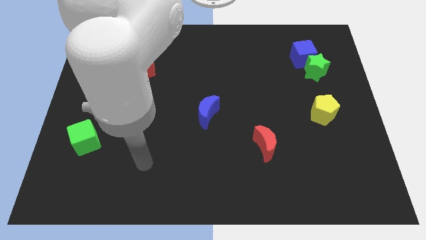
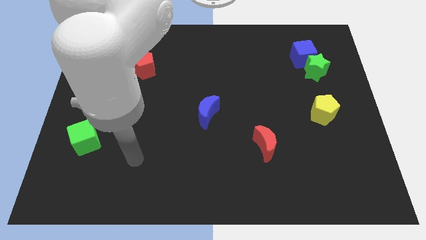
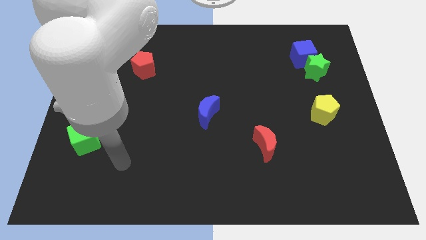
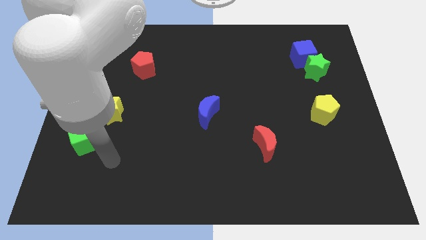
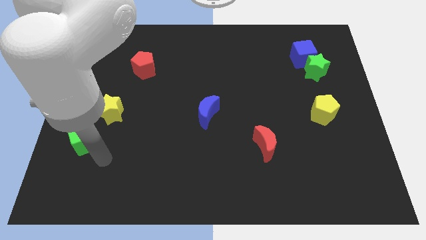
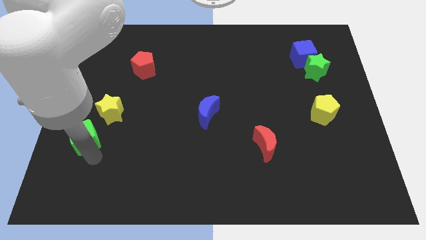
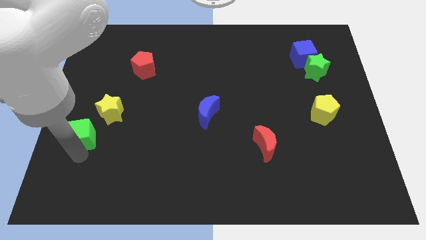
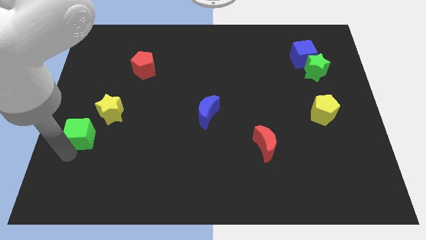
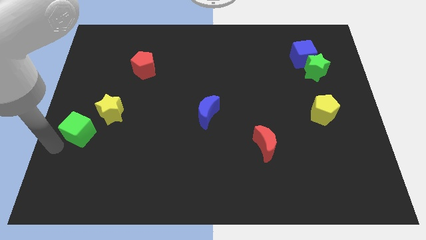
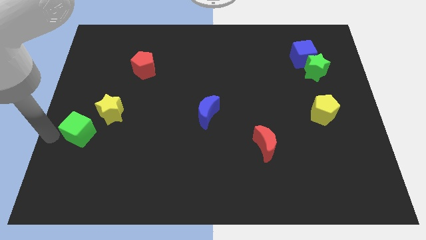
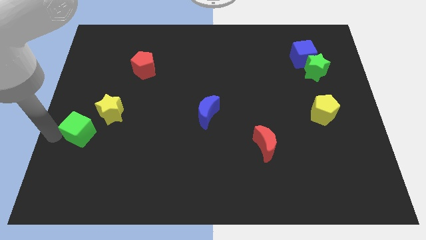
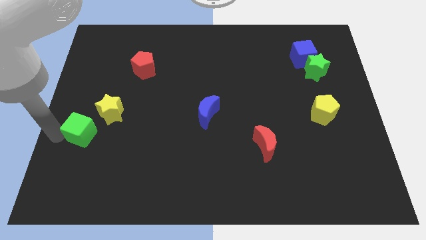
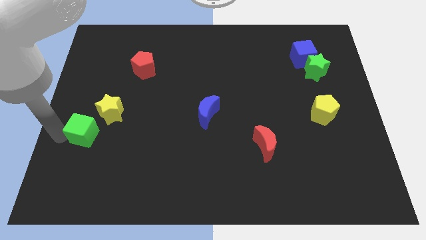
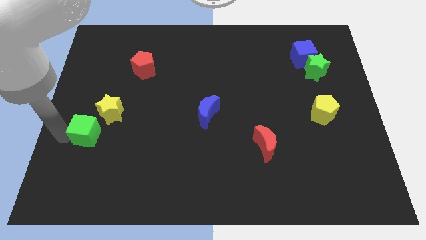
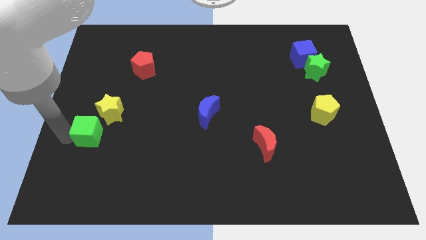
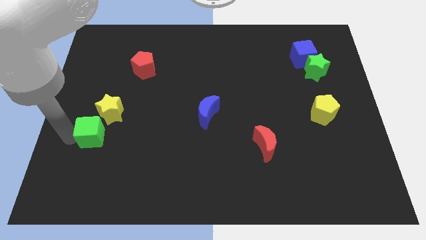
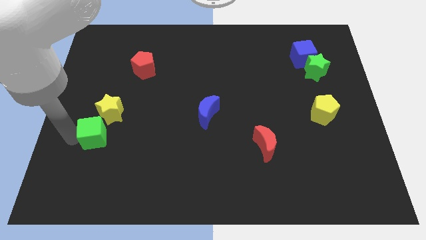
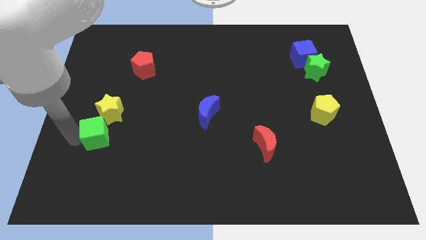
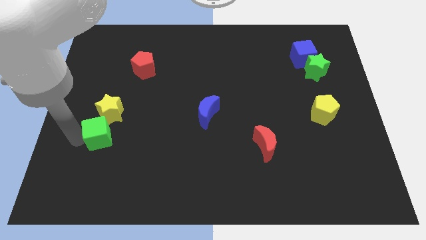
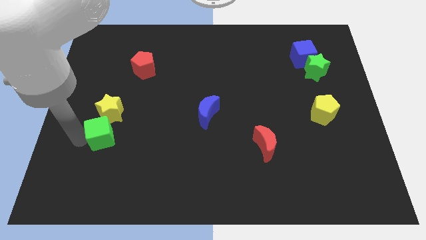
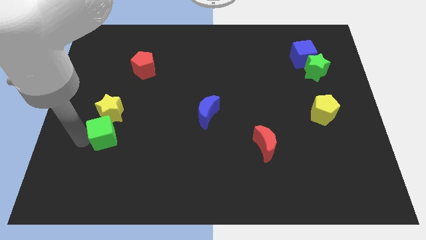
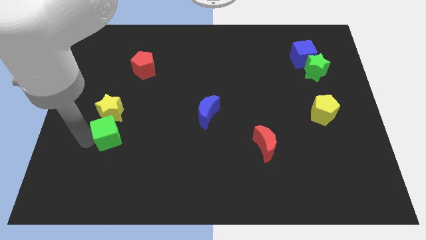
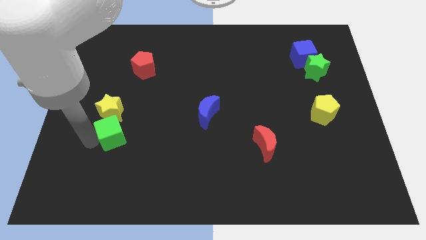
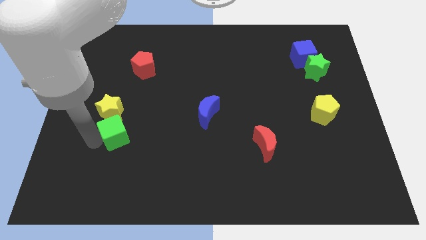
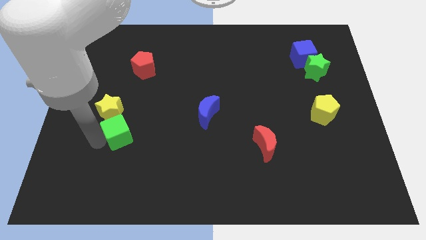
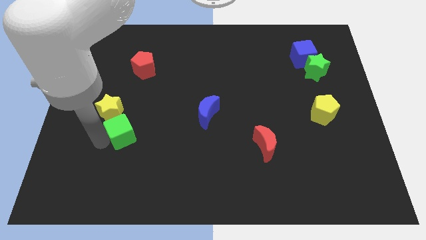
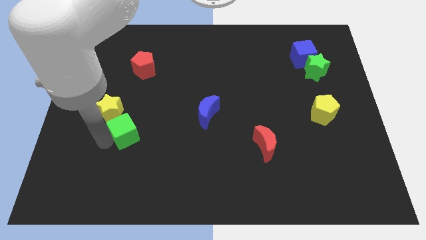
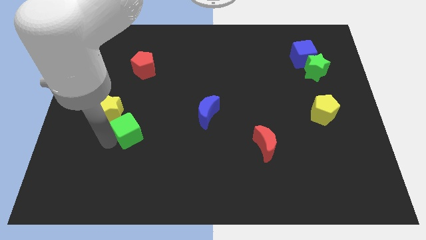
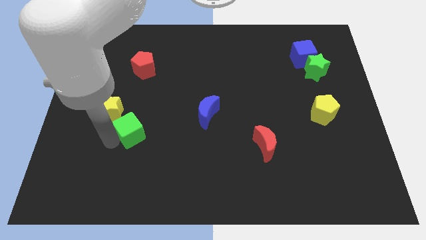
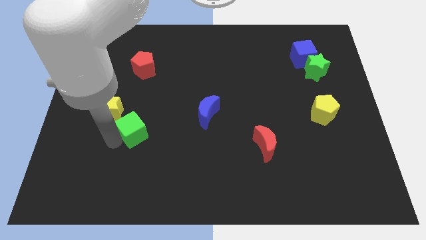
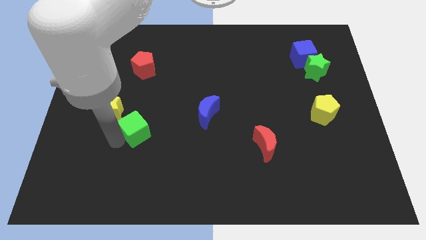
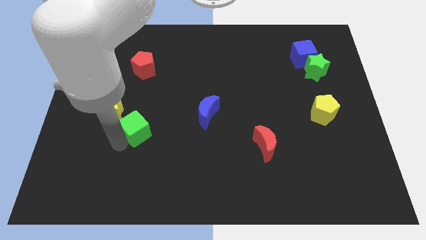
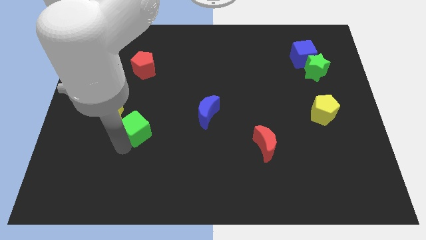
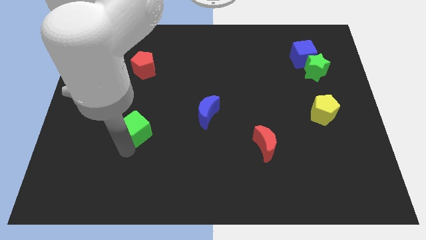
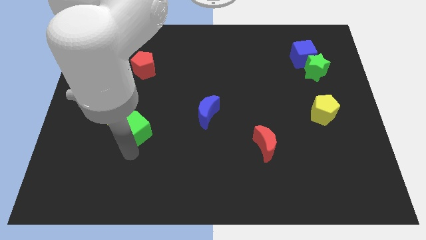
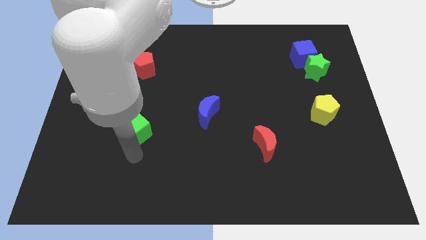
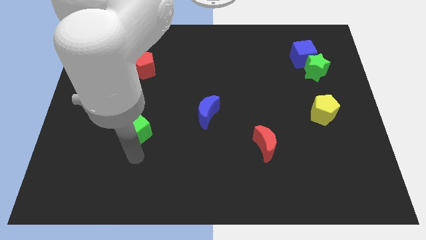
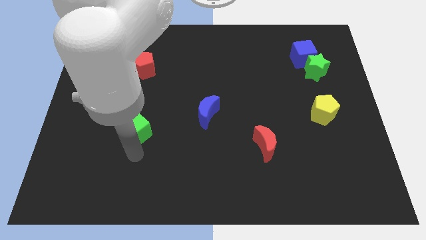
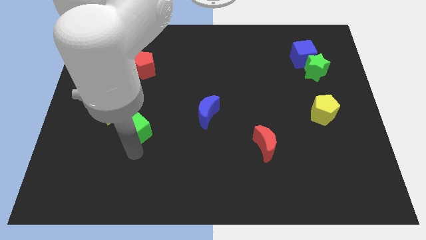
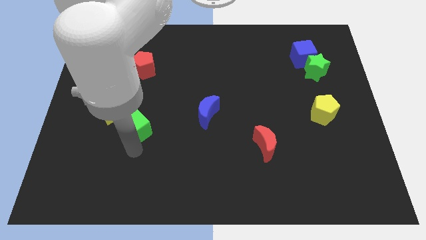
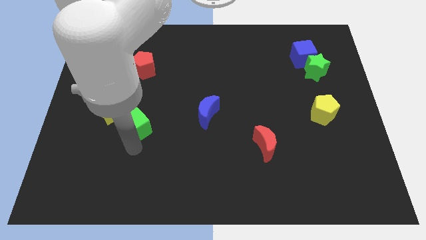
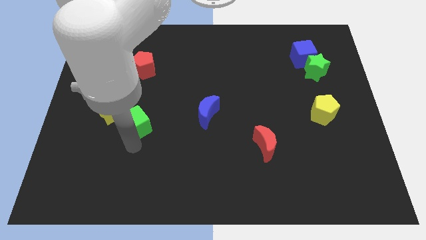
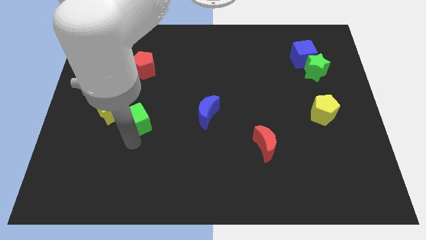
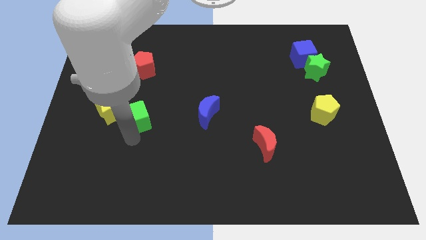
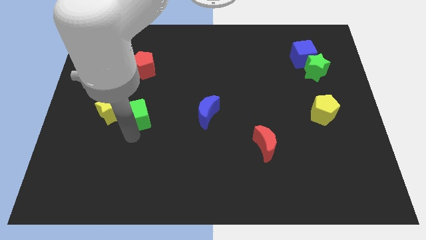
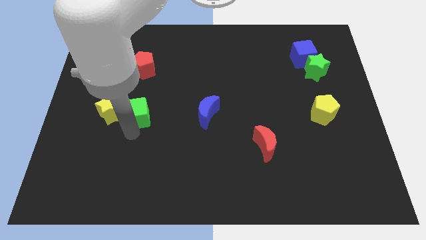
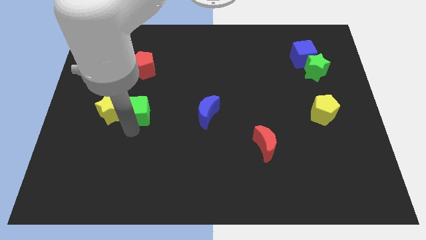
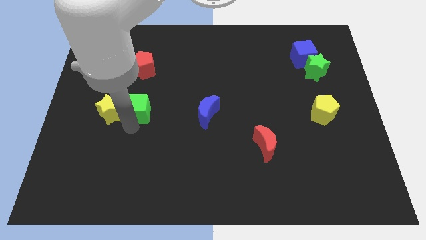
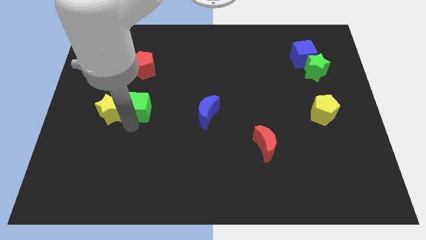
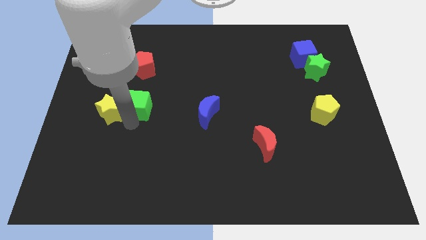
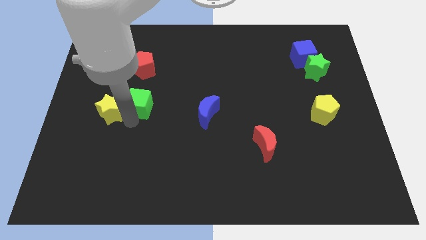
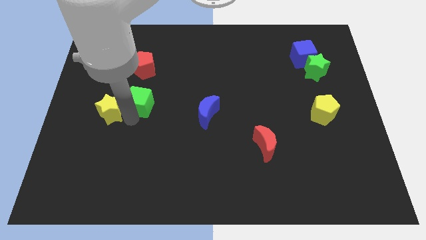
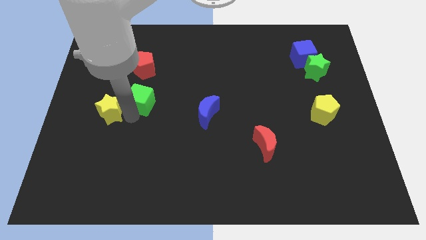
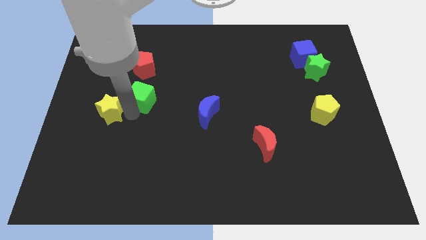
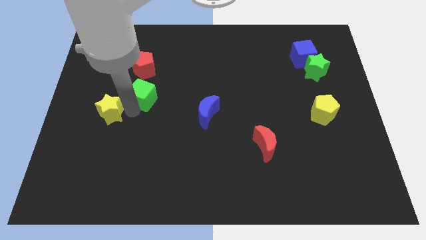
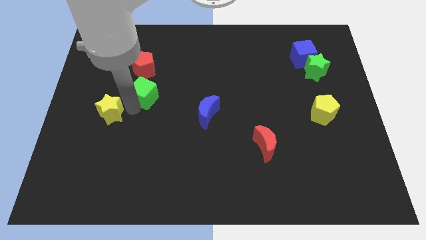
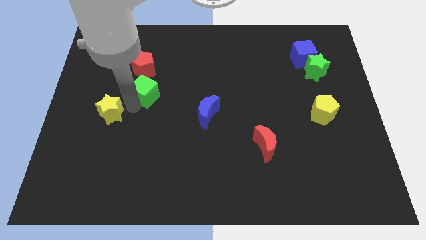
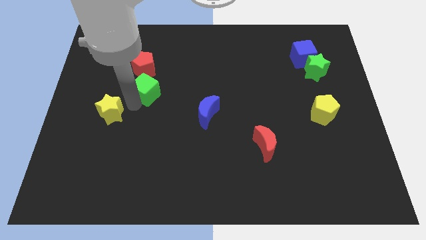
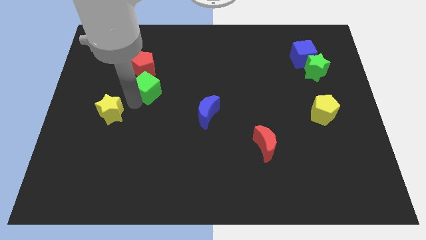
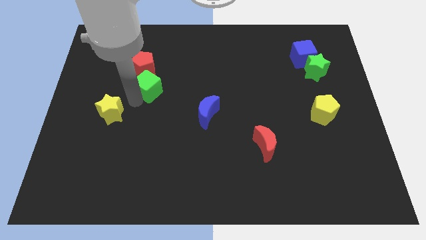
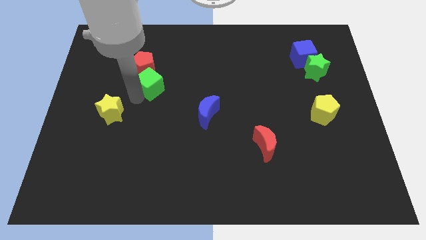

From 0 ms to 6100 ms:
slide the green cube up and right diagonally

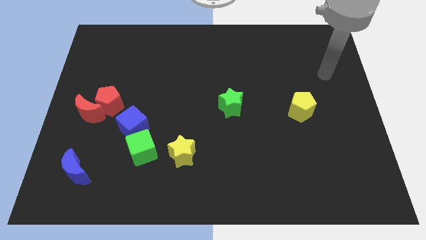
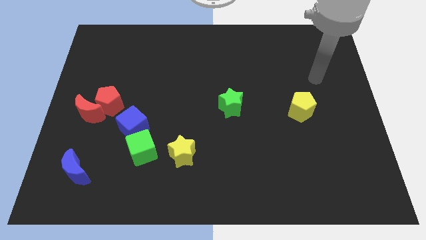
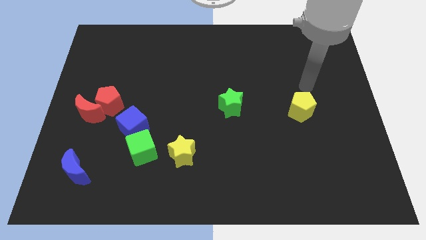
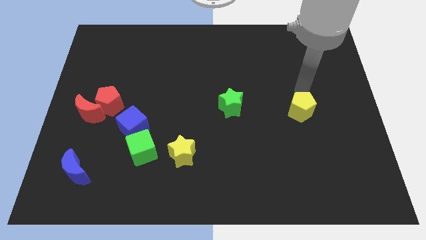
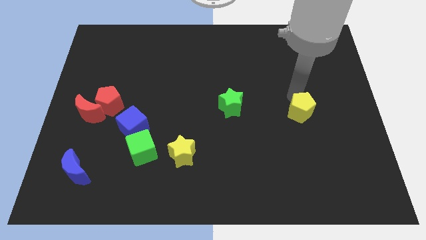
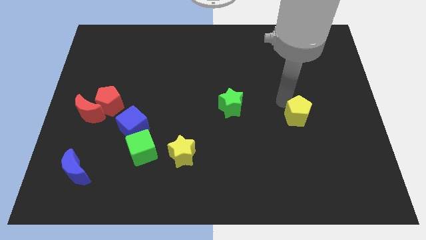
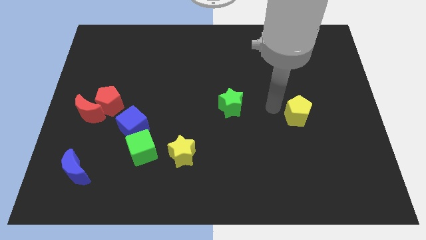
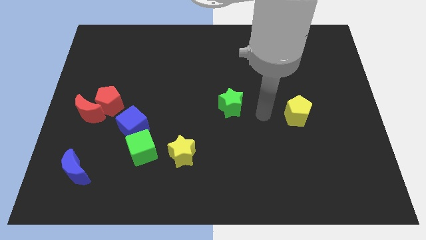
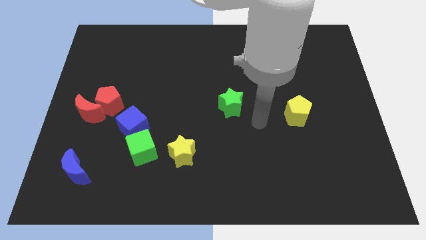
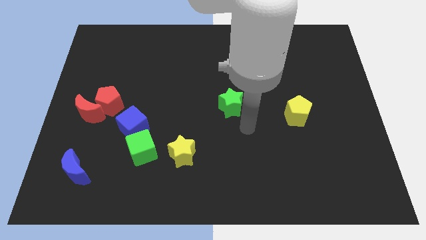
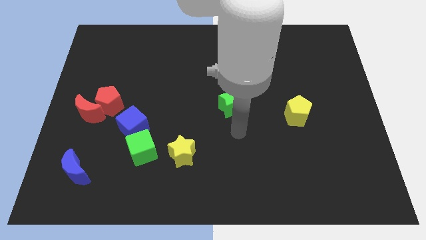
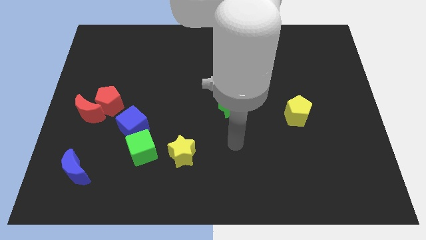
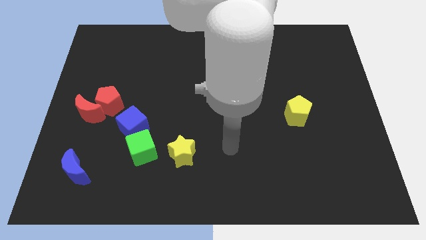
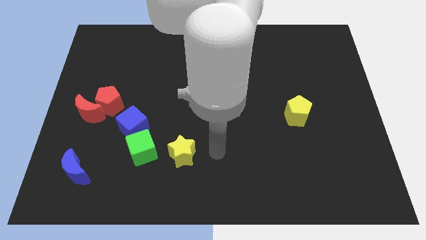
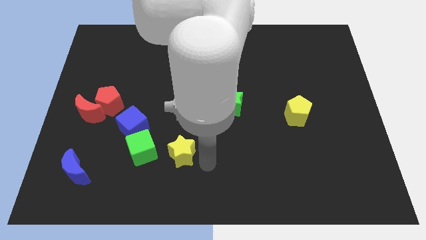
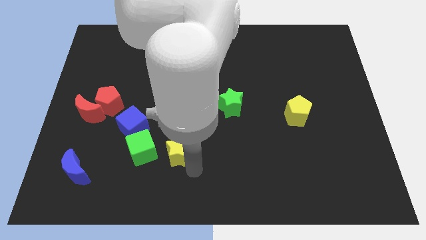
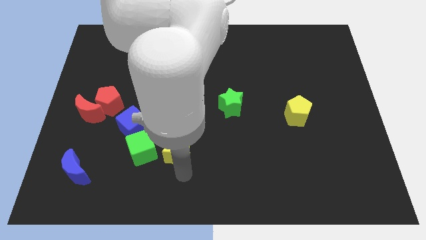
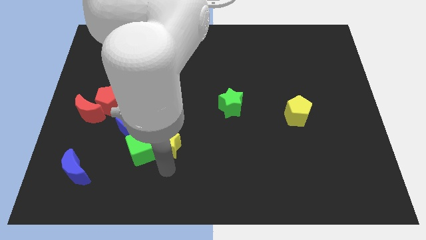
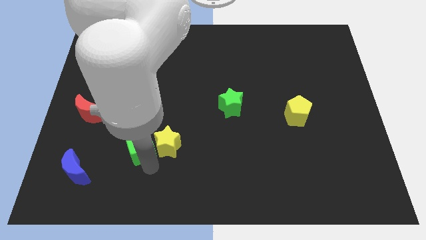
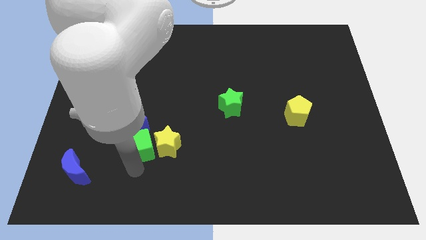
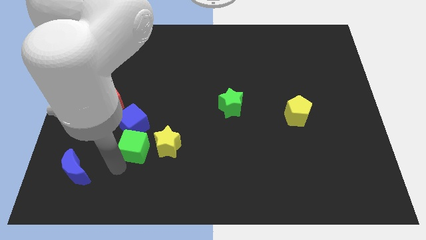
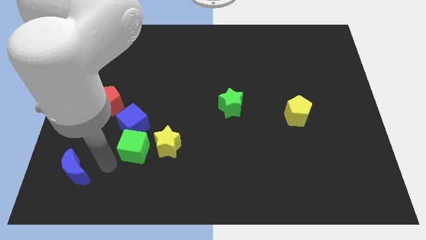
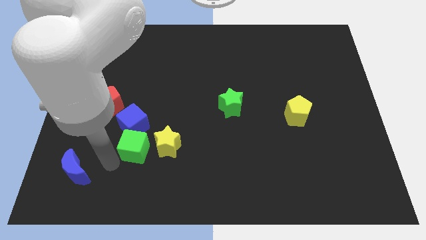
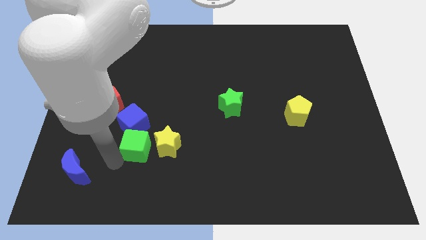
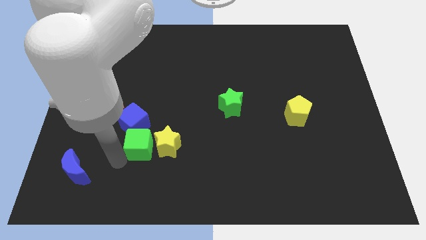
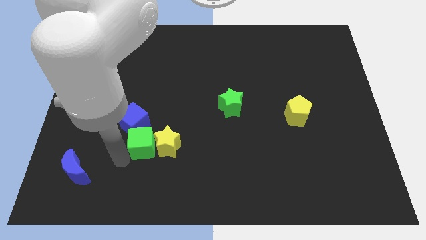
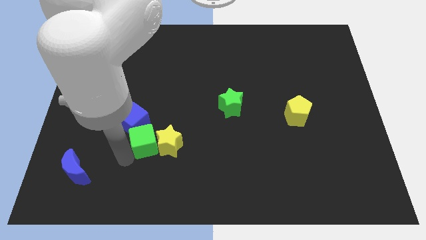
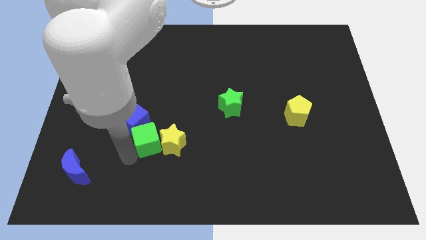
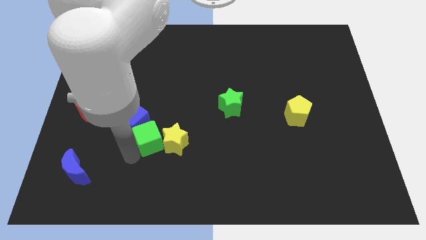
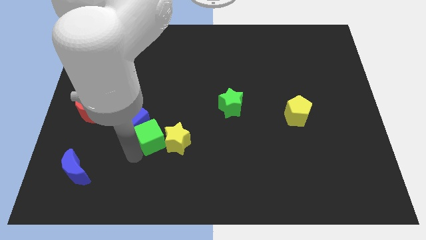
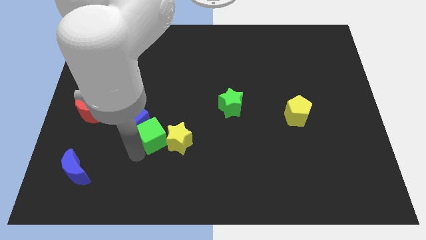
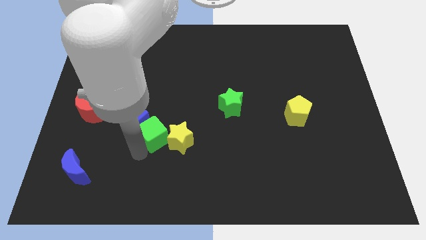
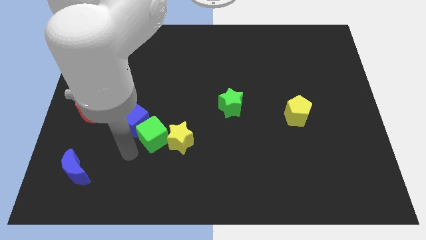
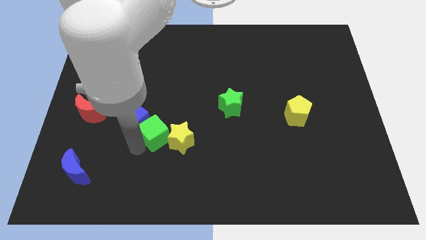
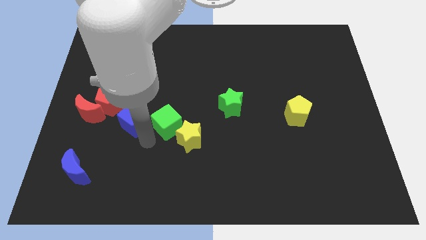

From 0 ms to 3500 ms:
move the green cube a little bit upwards and right diagonally
